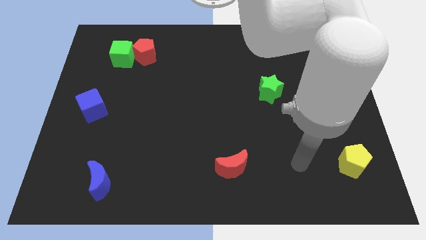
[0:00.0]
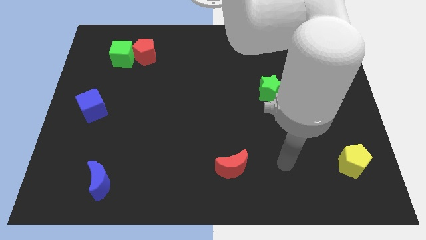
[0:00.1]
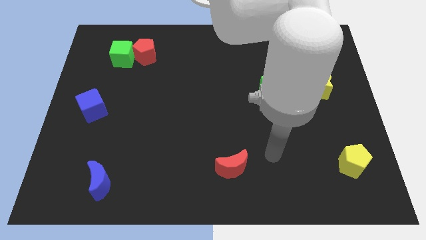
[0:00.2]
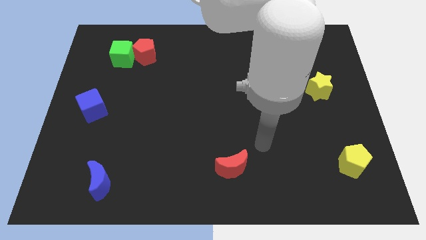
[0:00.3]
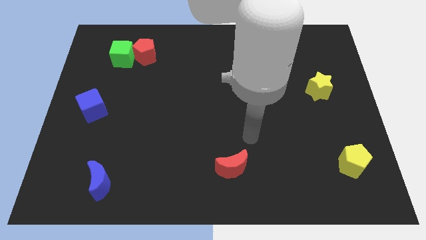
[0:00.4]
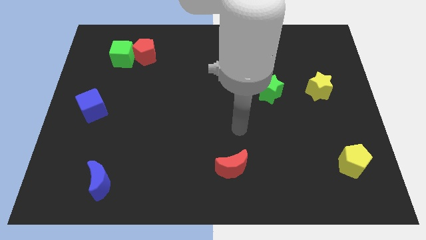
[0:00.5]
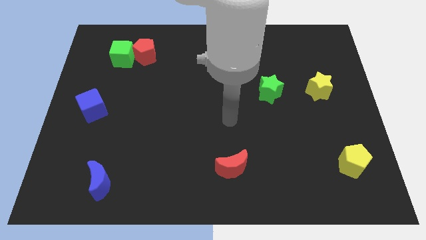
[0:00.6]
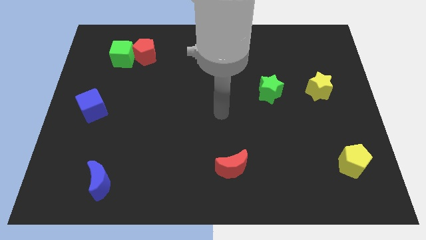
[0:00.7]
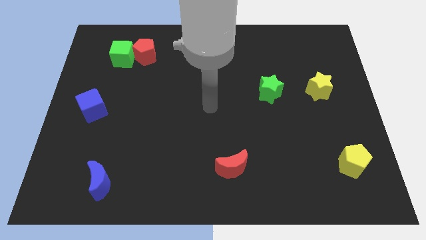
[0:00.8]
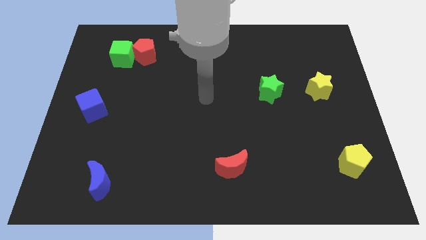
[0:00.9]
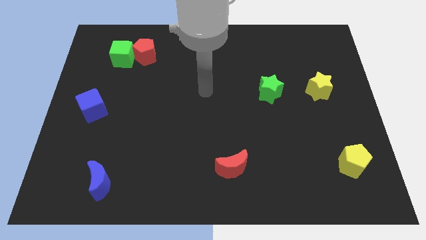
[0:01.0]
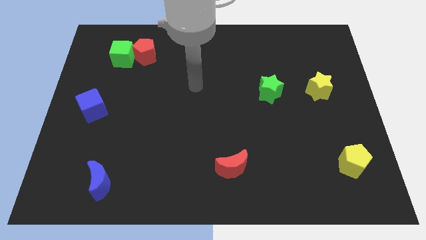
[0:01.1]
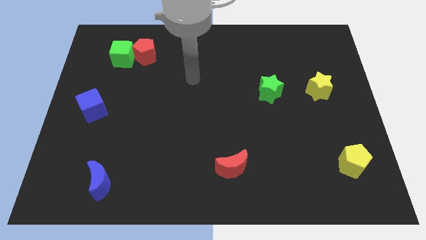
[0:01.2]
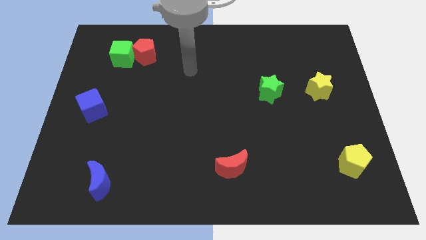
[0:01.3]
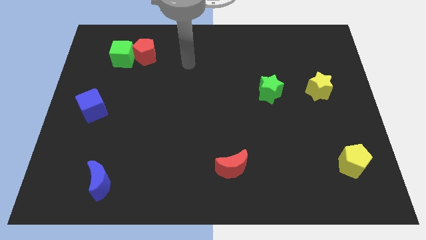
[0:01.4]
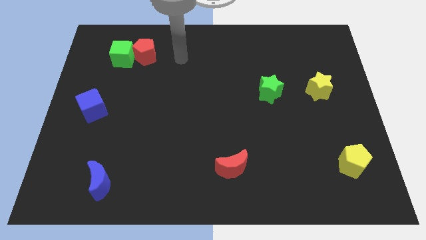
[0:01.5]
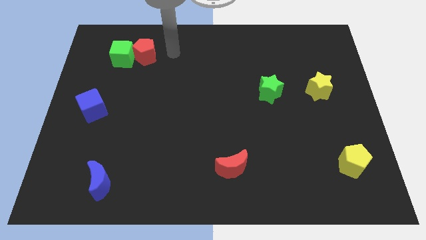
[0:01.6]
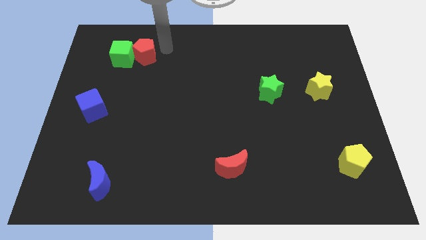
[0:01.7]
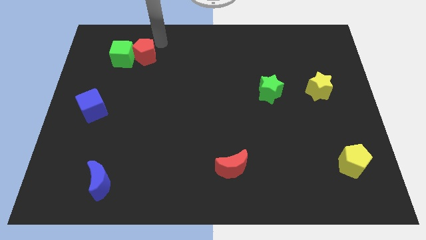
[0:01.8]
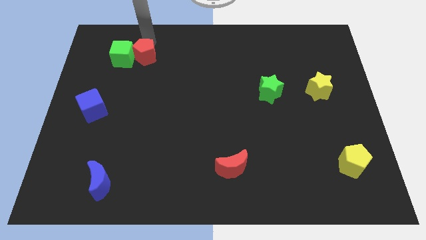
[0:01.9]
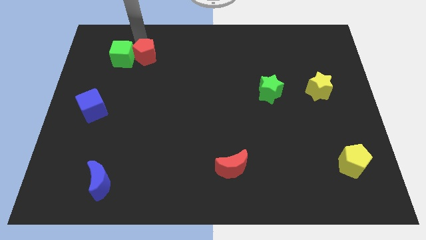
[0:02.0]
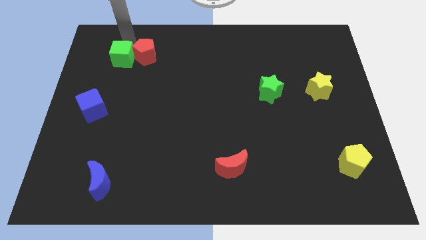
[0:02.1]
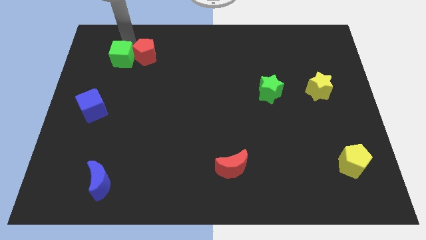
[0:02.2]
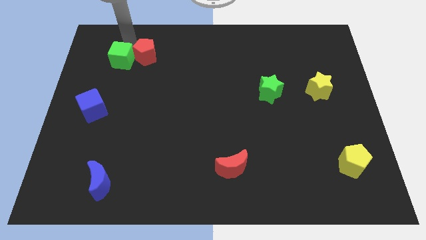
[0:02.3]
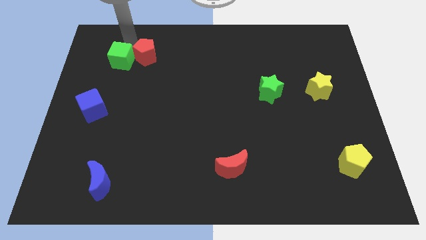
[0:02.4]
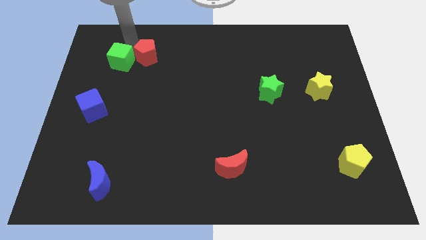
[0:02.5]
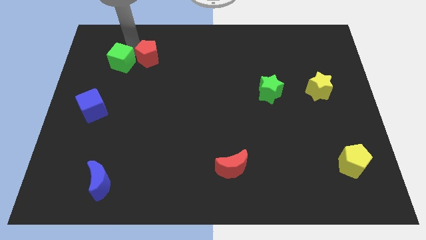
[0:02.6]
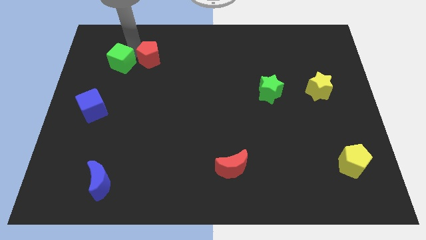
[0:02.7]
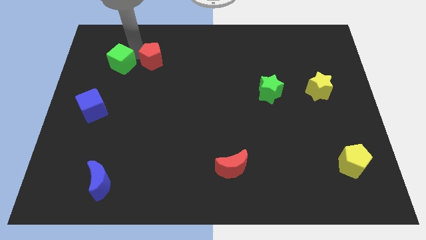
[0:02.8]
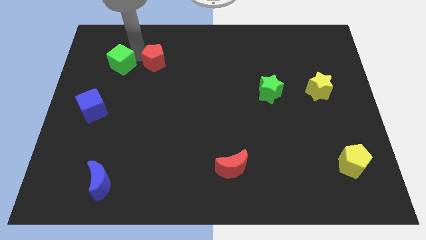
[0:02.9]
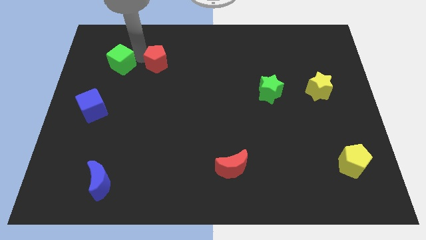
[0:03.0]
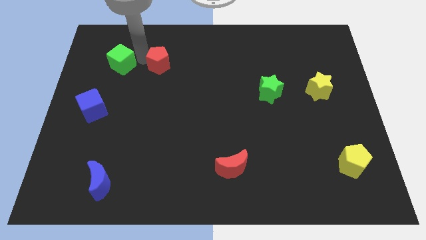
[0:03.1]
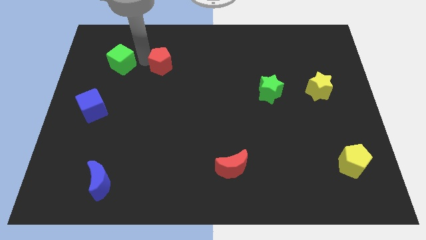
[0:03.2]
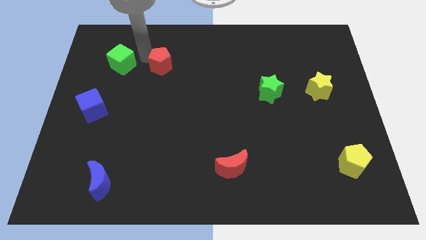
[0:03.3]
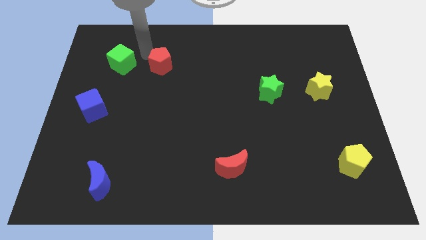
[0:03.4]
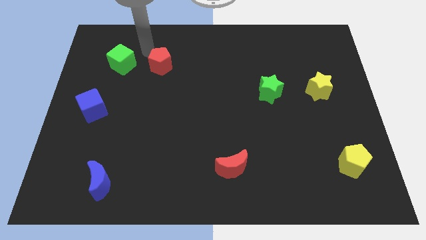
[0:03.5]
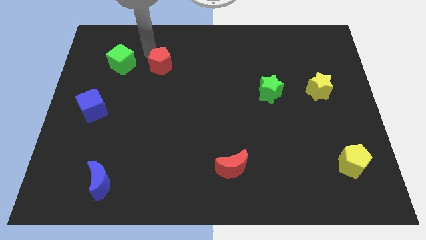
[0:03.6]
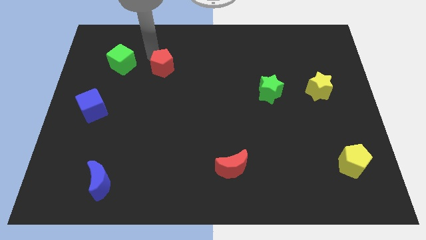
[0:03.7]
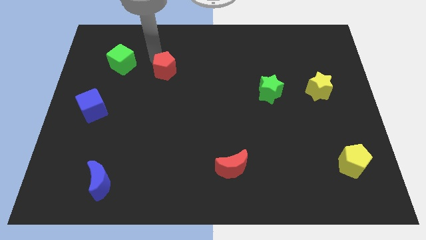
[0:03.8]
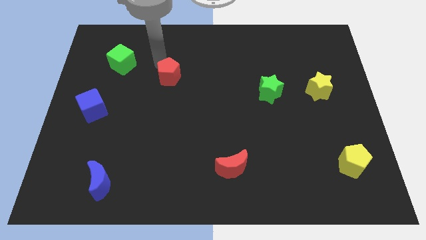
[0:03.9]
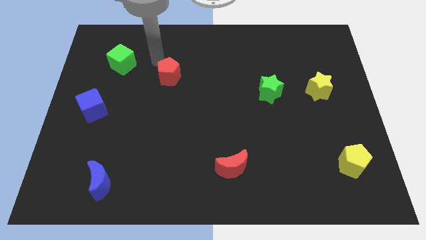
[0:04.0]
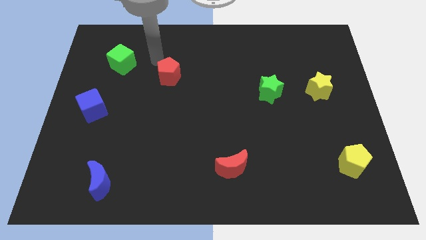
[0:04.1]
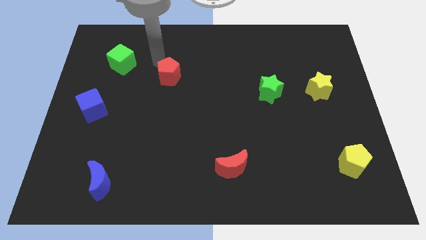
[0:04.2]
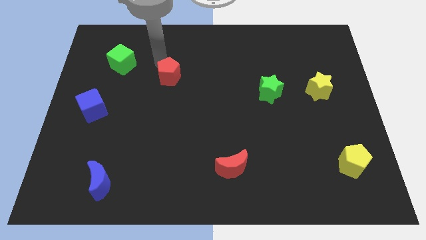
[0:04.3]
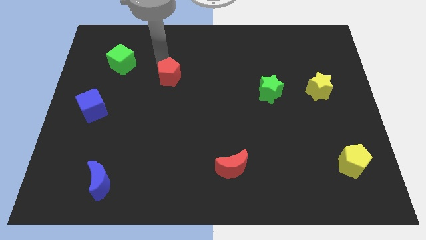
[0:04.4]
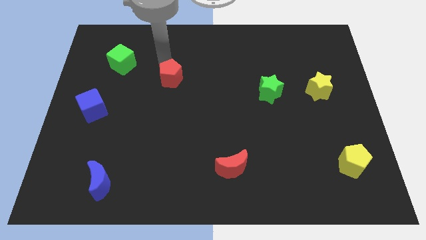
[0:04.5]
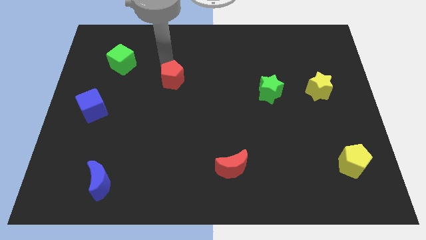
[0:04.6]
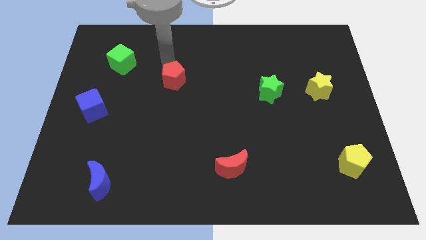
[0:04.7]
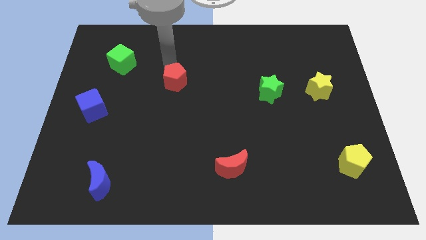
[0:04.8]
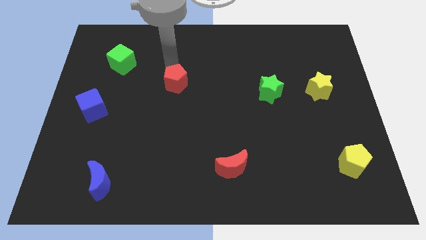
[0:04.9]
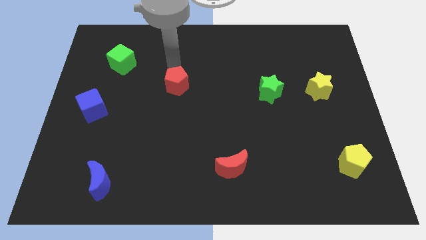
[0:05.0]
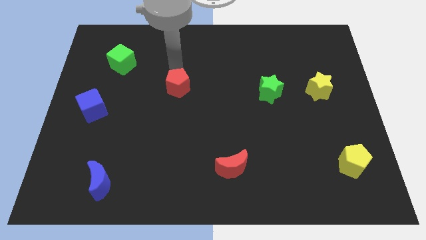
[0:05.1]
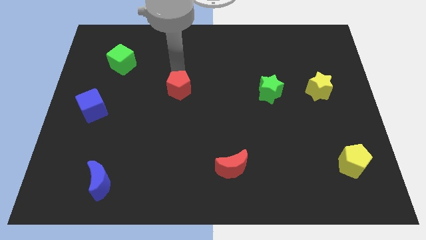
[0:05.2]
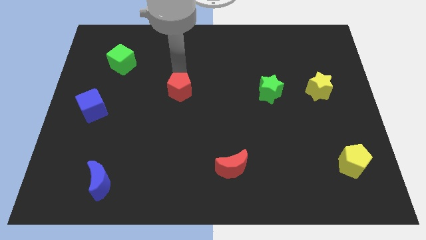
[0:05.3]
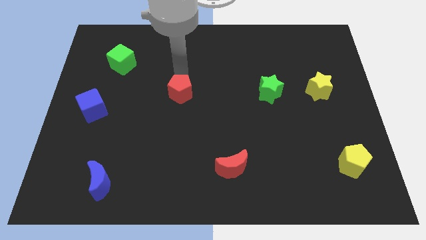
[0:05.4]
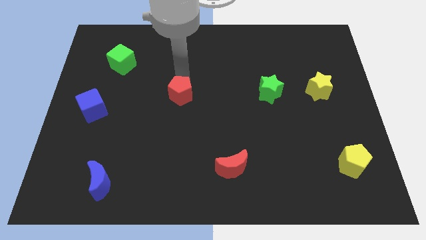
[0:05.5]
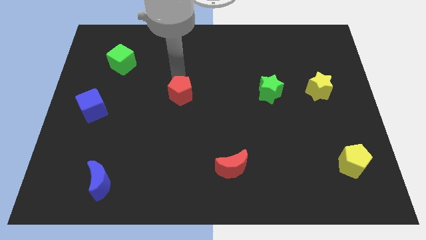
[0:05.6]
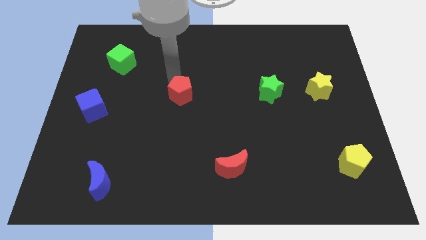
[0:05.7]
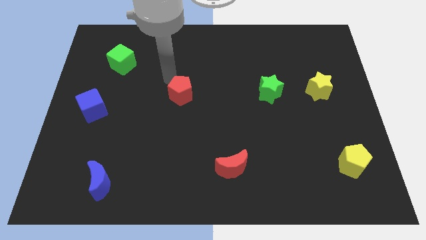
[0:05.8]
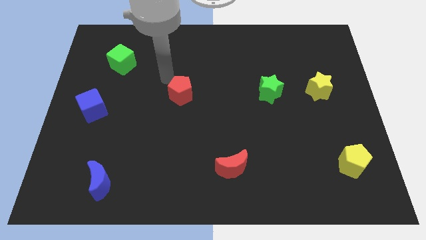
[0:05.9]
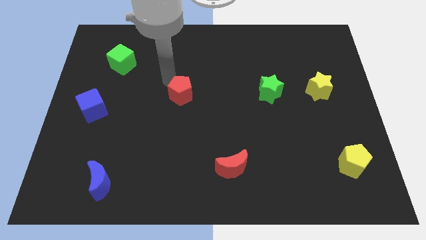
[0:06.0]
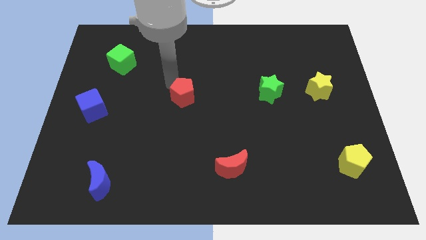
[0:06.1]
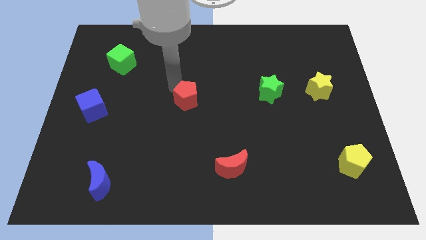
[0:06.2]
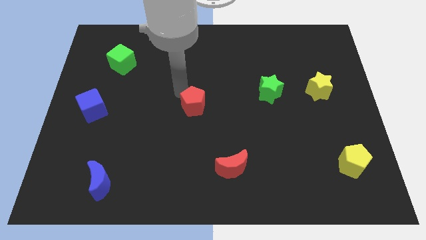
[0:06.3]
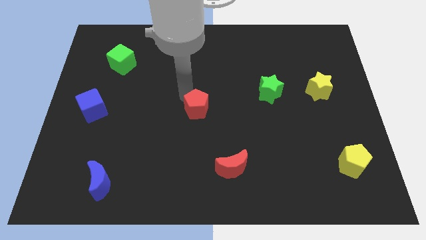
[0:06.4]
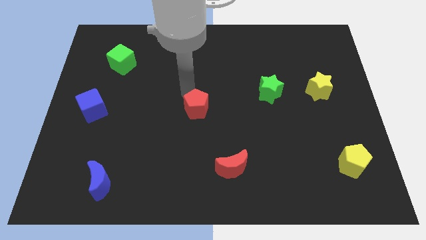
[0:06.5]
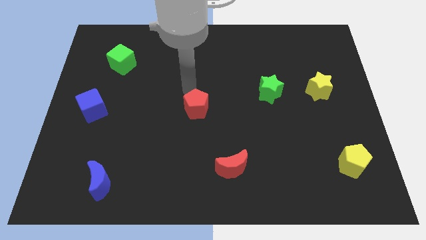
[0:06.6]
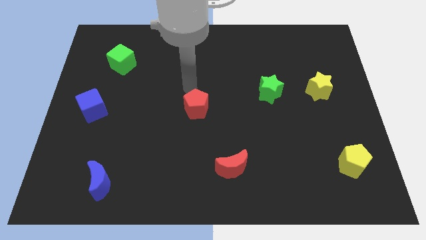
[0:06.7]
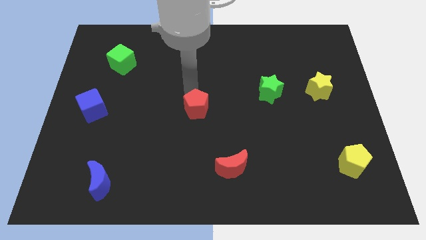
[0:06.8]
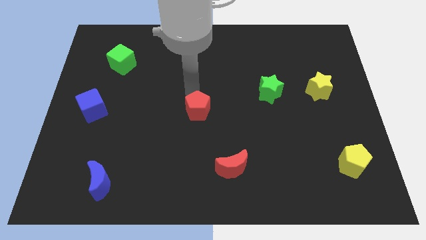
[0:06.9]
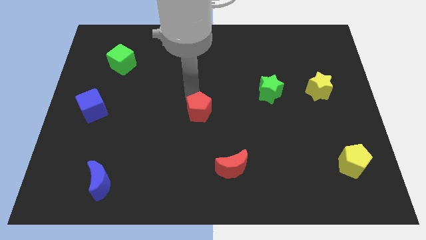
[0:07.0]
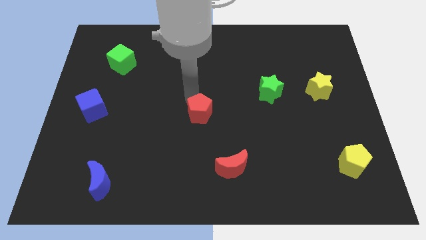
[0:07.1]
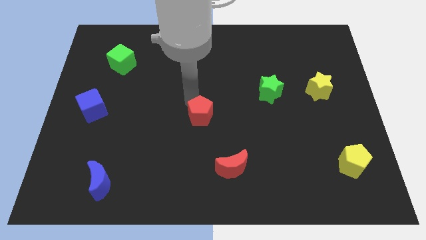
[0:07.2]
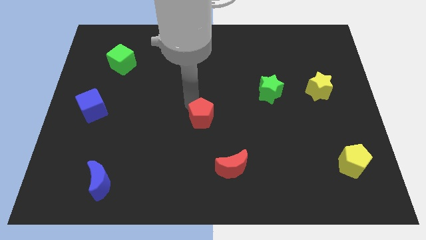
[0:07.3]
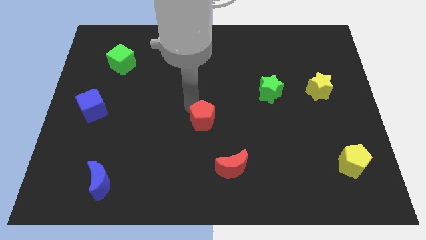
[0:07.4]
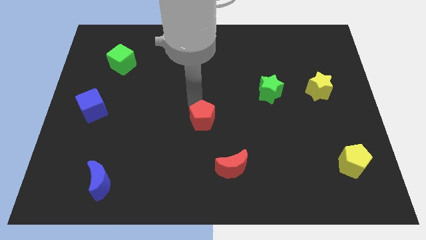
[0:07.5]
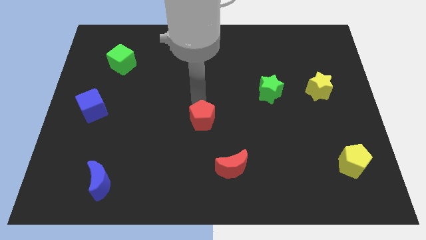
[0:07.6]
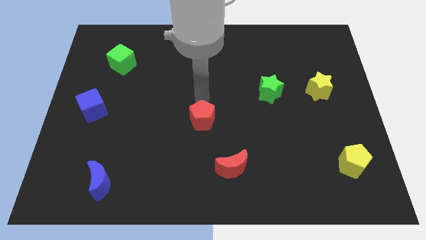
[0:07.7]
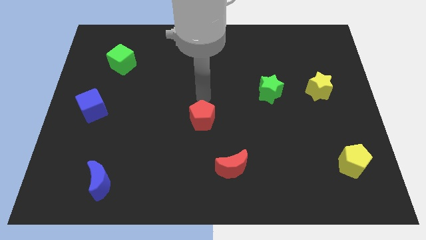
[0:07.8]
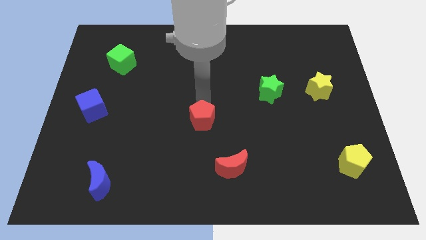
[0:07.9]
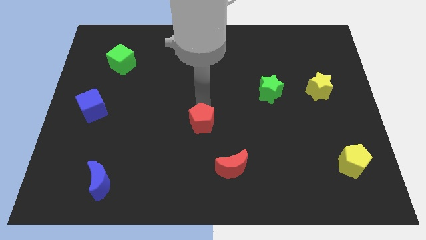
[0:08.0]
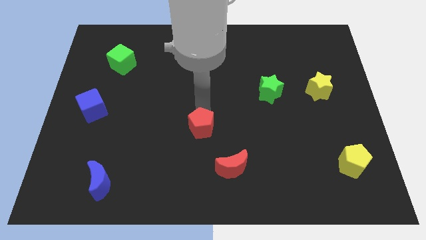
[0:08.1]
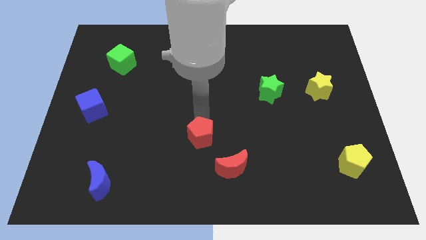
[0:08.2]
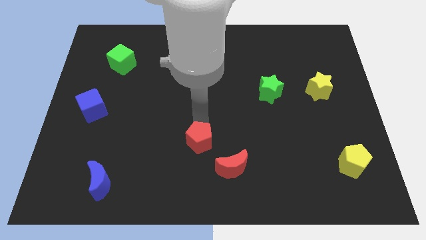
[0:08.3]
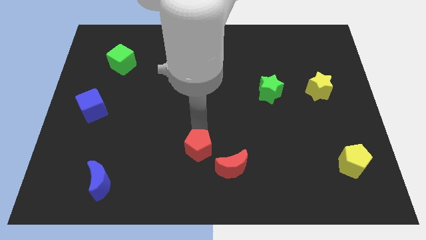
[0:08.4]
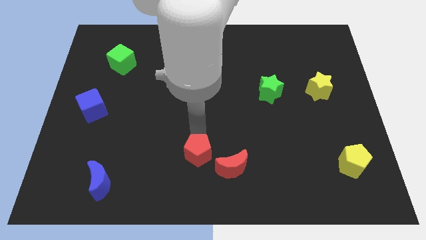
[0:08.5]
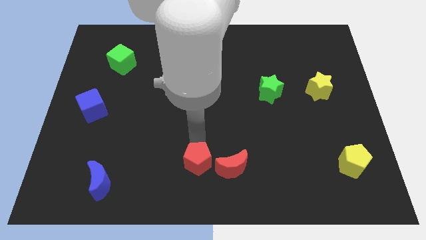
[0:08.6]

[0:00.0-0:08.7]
slide the red pentagon to the bottom side
